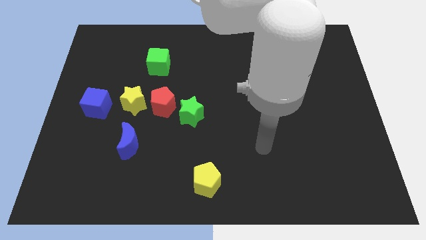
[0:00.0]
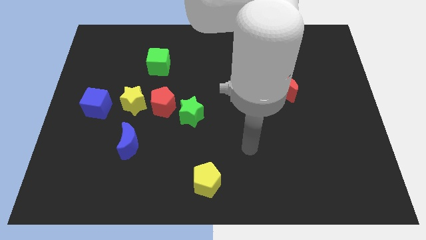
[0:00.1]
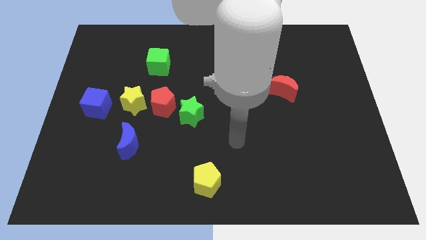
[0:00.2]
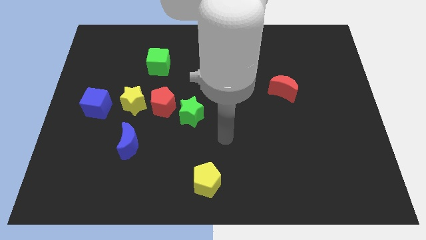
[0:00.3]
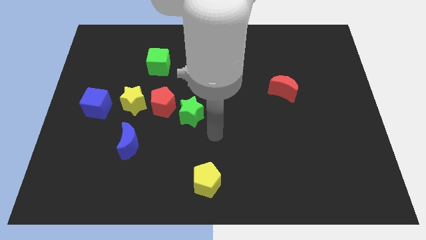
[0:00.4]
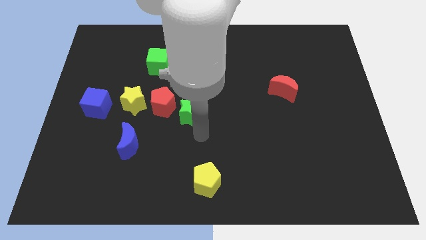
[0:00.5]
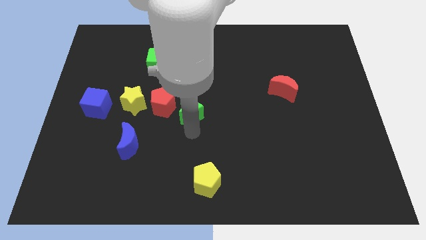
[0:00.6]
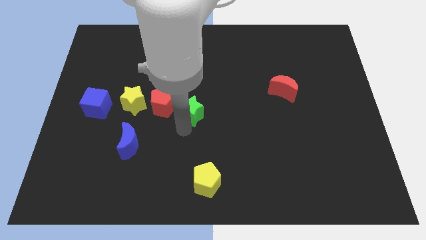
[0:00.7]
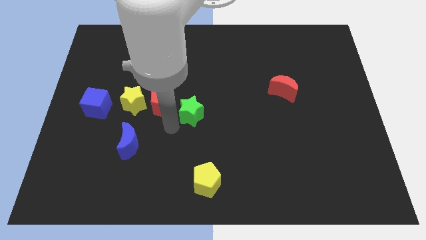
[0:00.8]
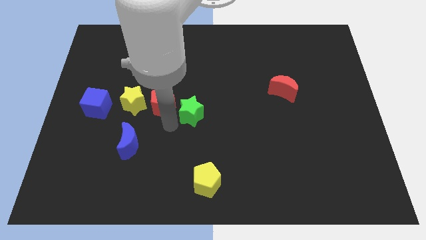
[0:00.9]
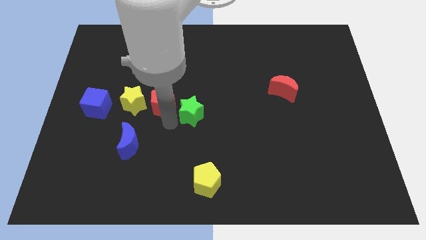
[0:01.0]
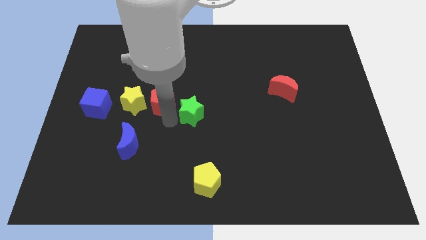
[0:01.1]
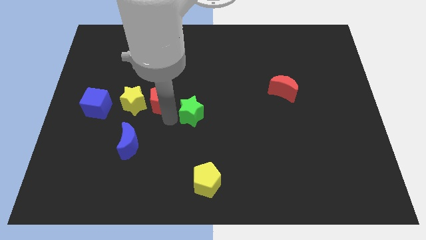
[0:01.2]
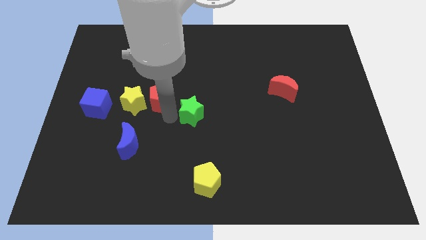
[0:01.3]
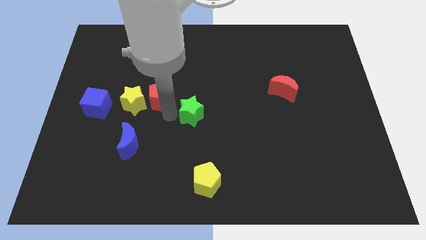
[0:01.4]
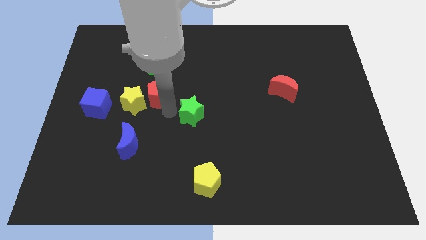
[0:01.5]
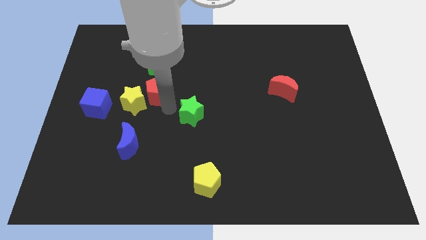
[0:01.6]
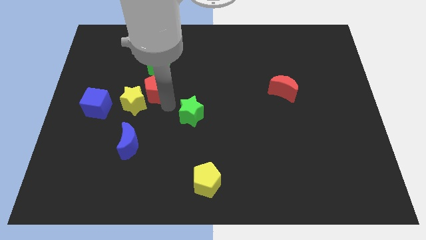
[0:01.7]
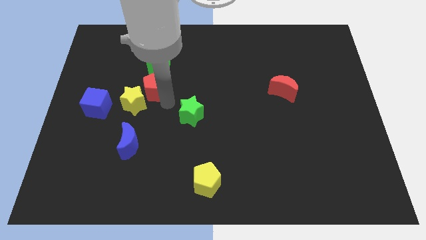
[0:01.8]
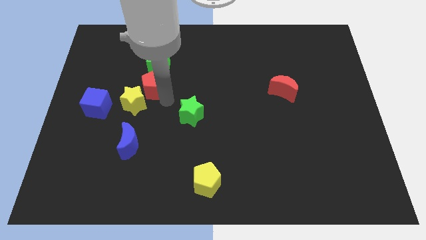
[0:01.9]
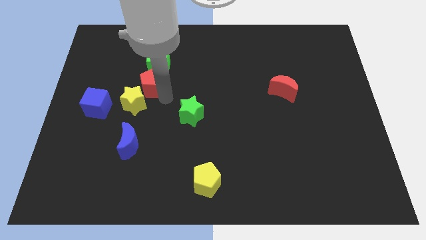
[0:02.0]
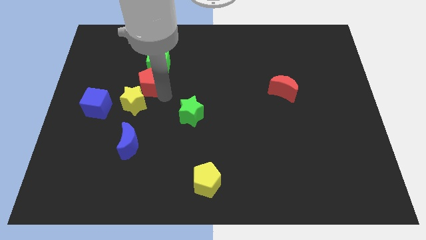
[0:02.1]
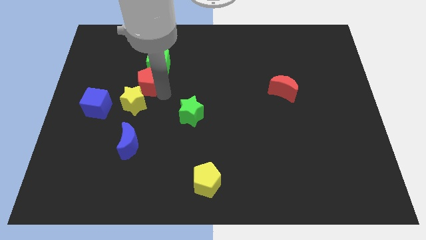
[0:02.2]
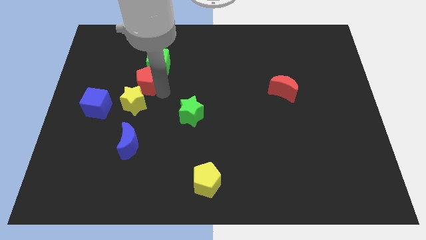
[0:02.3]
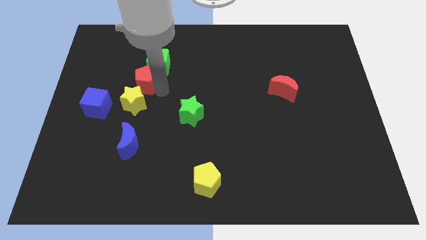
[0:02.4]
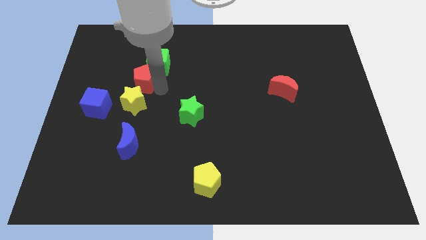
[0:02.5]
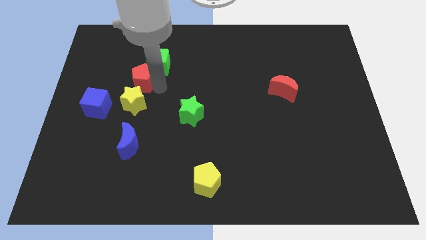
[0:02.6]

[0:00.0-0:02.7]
separate the red pentagon from the yellow star and green star

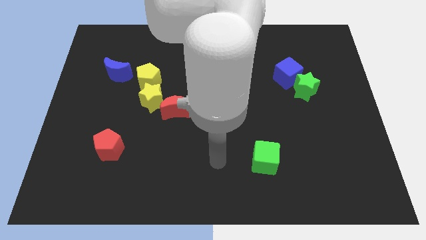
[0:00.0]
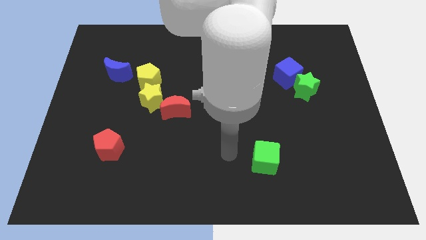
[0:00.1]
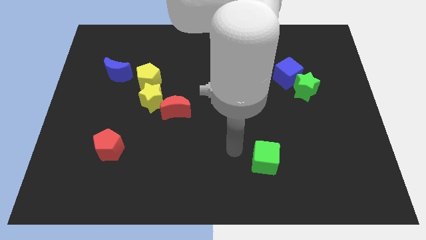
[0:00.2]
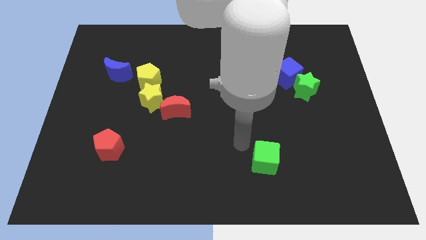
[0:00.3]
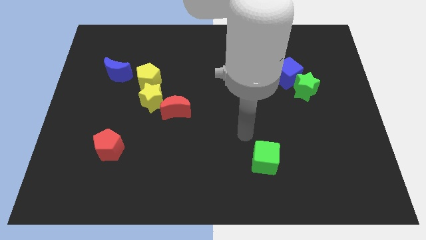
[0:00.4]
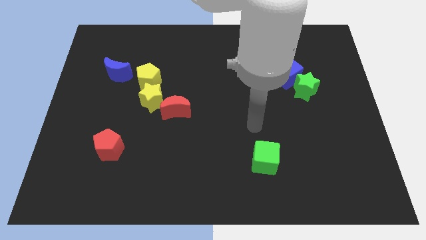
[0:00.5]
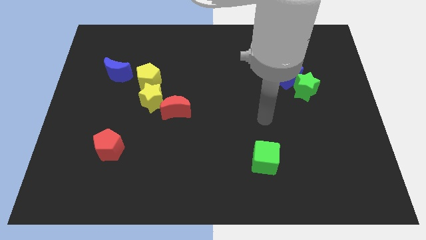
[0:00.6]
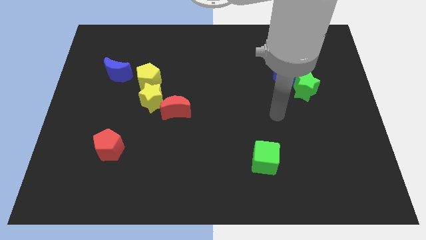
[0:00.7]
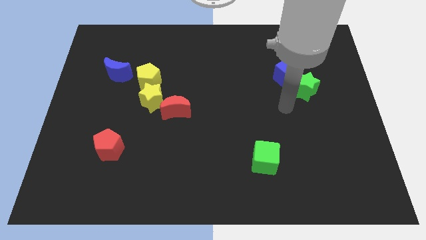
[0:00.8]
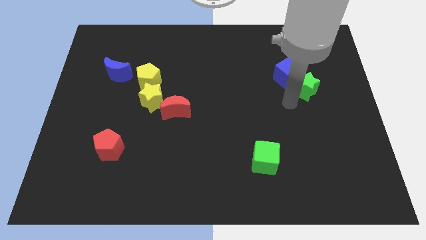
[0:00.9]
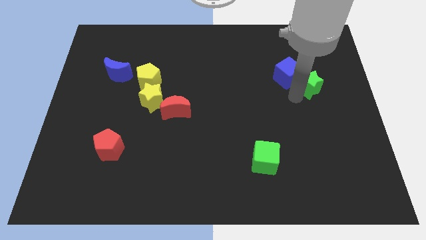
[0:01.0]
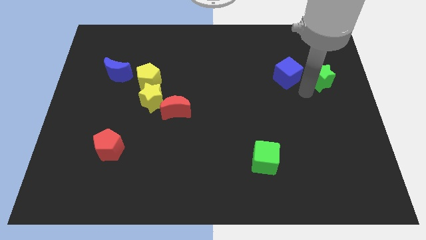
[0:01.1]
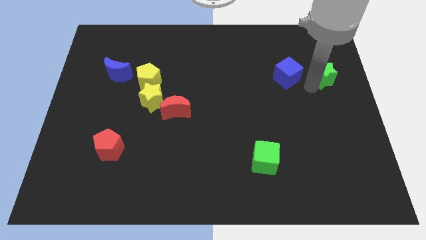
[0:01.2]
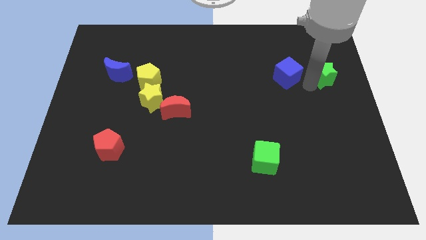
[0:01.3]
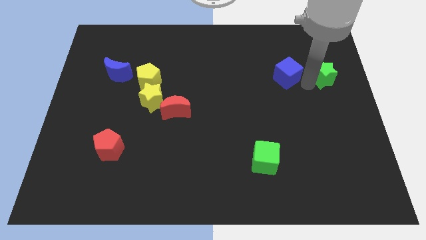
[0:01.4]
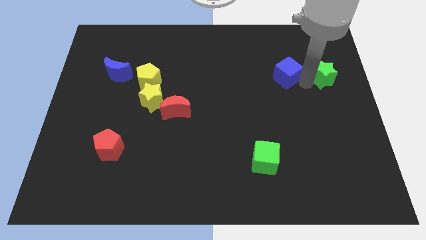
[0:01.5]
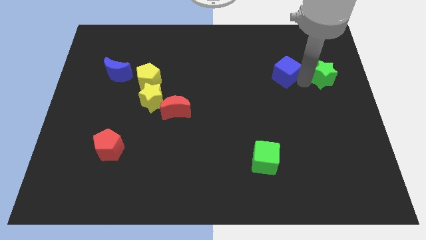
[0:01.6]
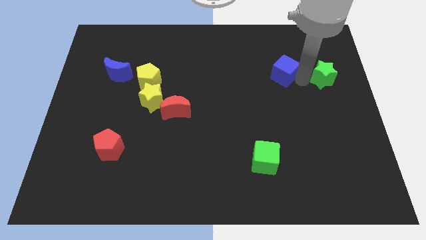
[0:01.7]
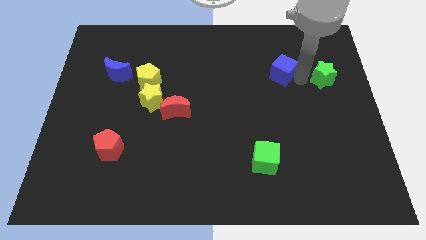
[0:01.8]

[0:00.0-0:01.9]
move the blue cube away from the green star

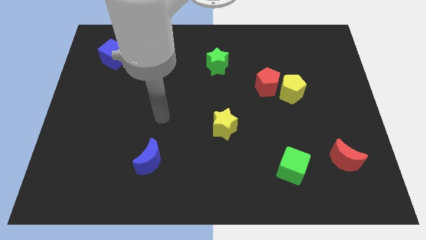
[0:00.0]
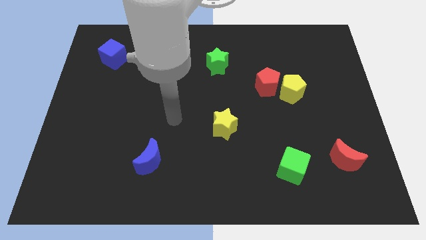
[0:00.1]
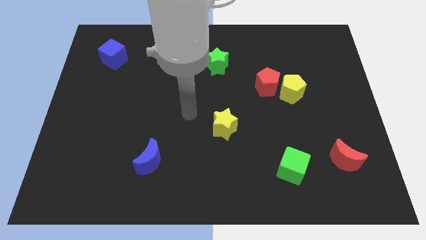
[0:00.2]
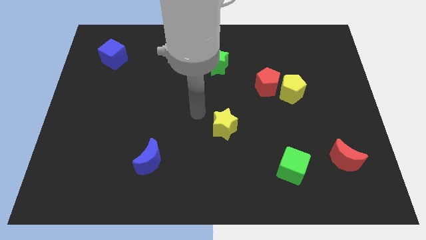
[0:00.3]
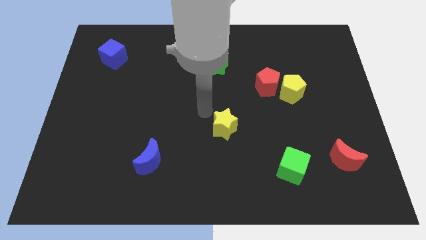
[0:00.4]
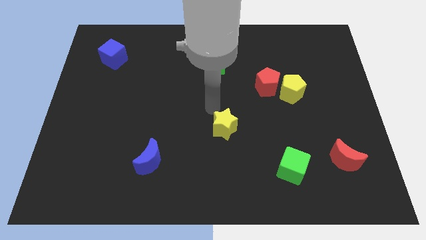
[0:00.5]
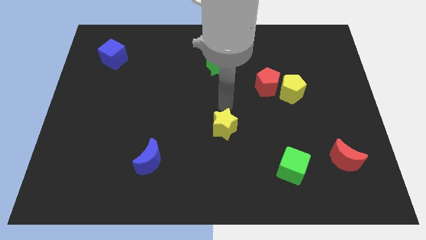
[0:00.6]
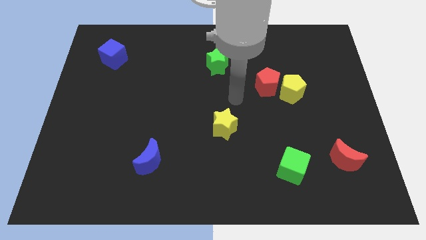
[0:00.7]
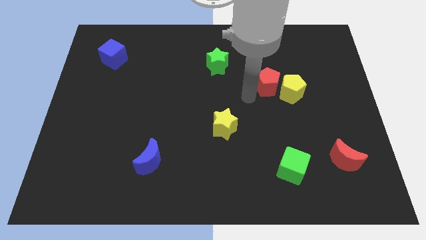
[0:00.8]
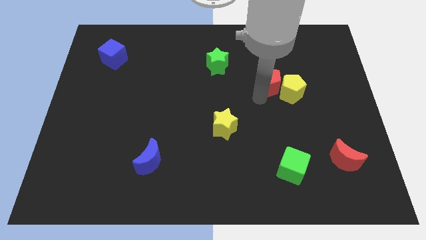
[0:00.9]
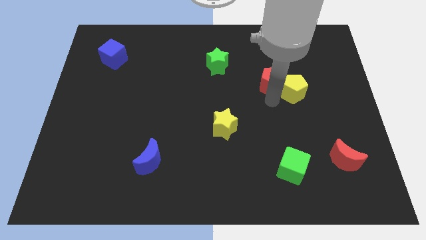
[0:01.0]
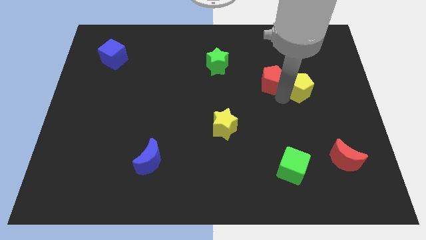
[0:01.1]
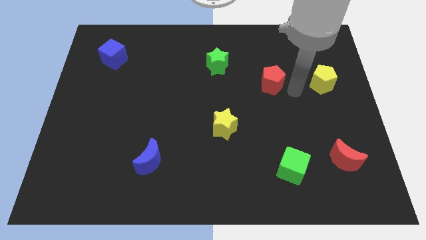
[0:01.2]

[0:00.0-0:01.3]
separate the red pentagon from the yellow pentagon

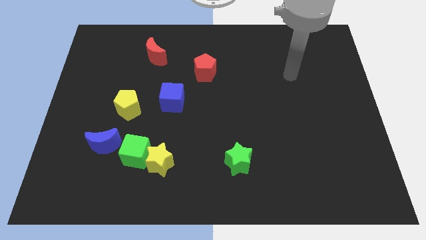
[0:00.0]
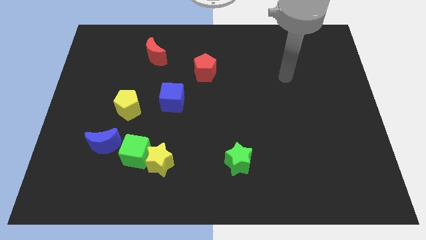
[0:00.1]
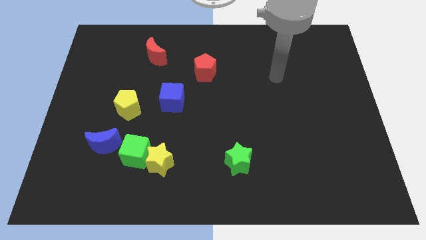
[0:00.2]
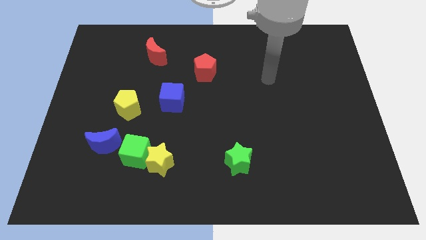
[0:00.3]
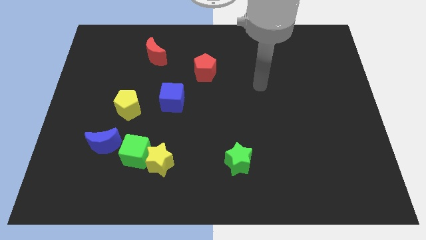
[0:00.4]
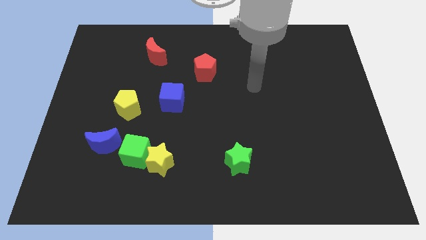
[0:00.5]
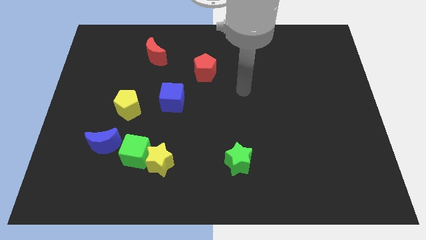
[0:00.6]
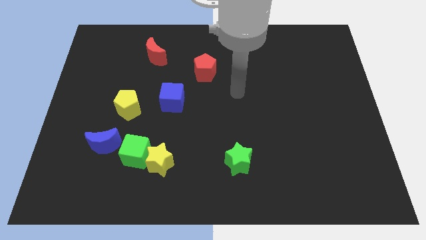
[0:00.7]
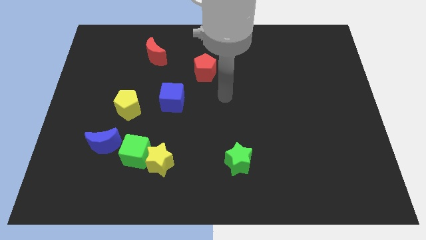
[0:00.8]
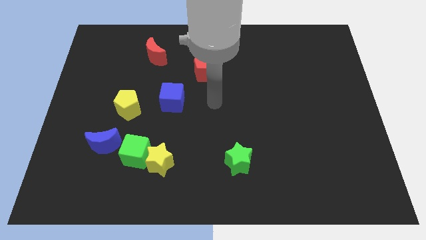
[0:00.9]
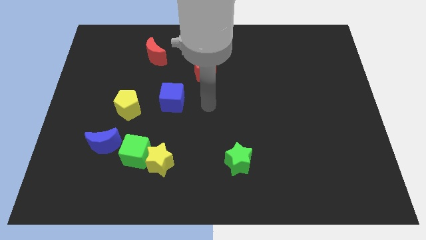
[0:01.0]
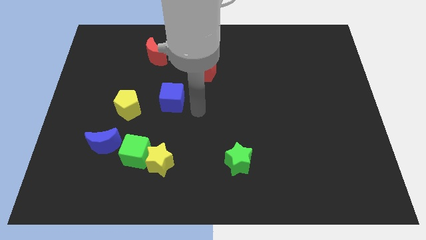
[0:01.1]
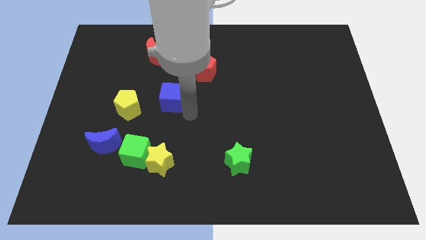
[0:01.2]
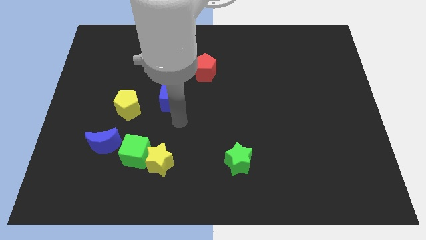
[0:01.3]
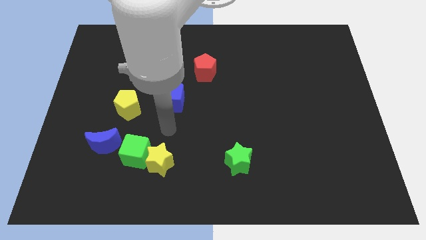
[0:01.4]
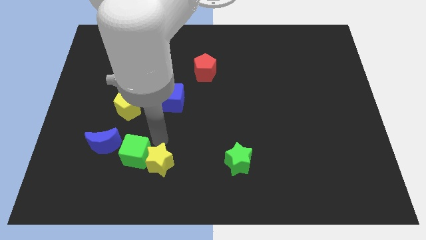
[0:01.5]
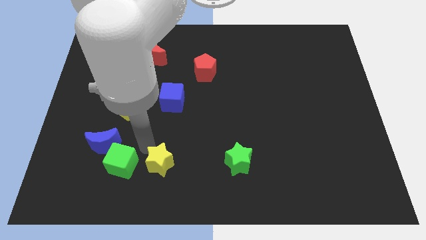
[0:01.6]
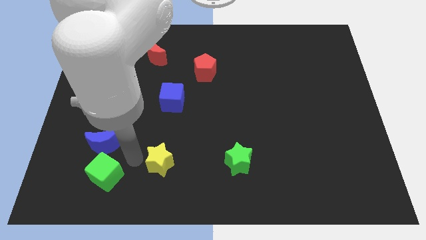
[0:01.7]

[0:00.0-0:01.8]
separate the yellow star from the green cube

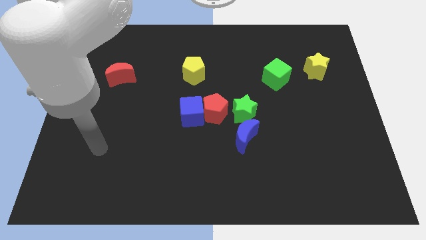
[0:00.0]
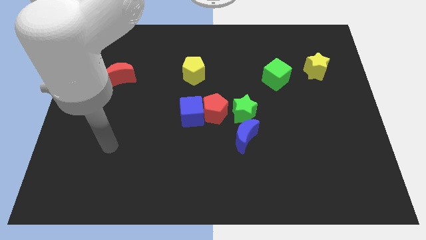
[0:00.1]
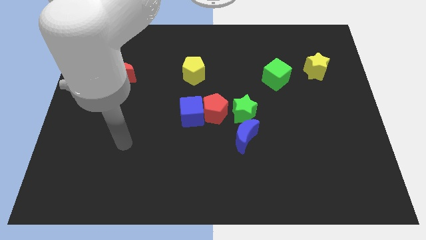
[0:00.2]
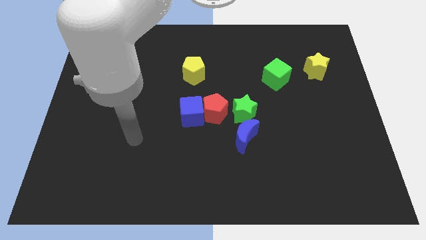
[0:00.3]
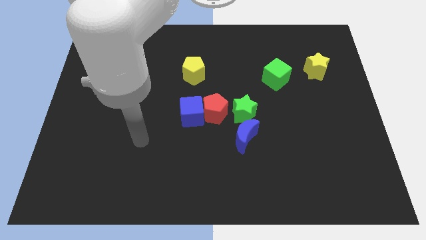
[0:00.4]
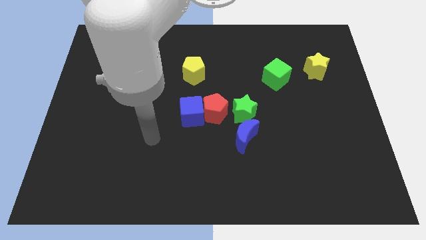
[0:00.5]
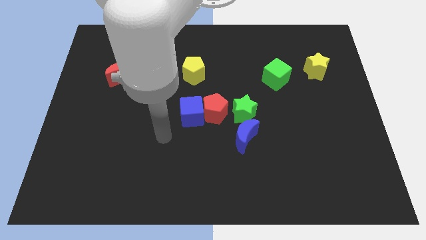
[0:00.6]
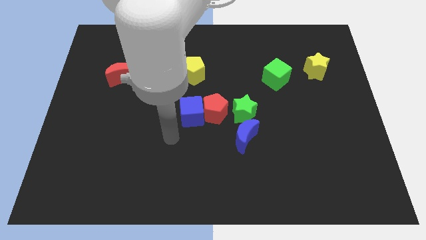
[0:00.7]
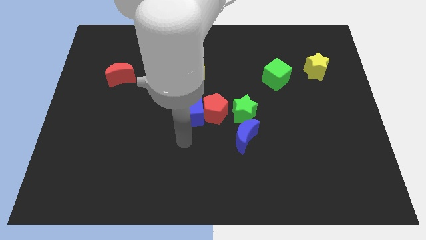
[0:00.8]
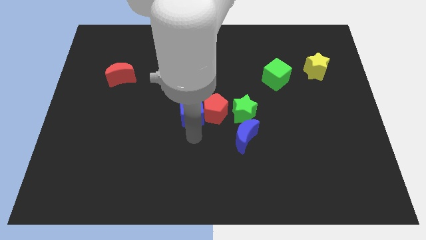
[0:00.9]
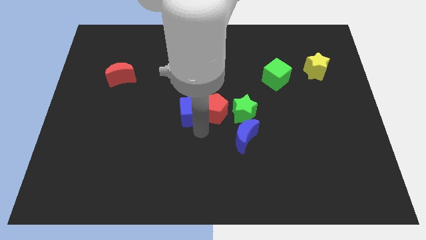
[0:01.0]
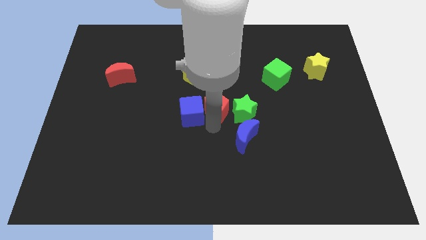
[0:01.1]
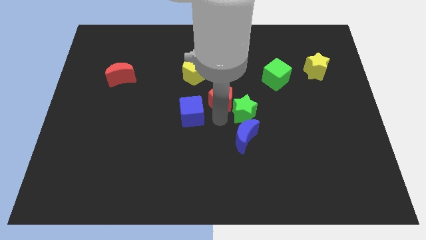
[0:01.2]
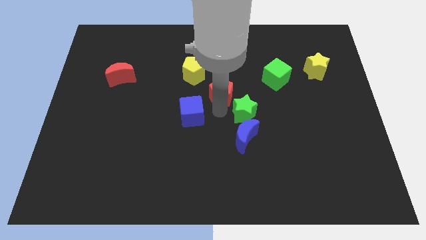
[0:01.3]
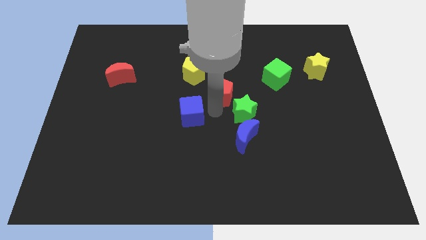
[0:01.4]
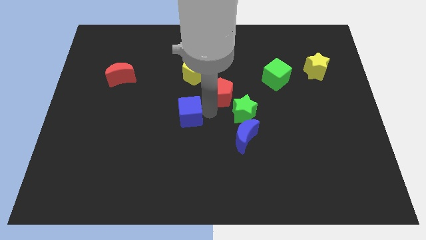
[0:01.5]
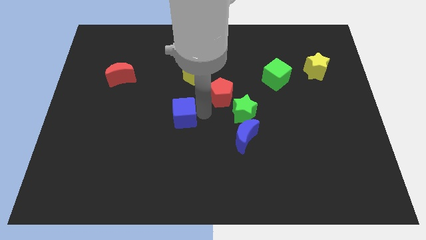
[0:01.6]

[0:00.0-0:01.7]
separate the blue cube from the red pentagon
